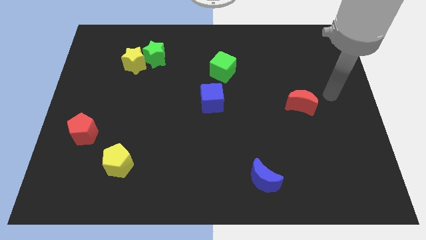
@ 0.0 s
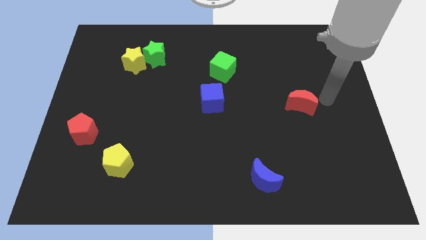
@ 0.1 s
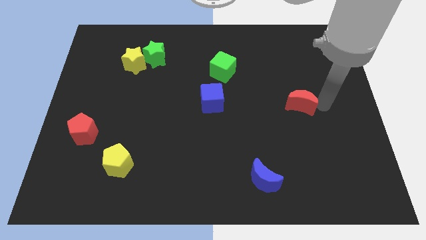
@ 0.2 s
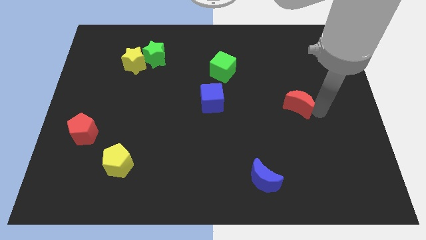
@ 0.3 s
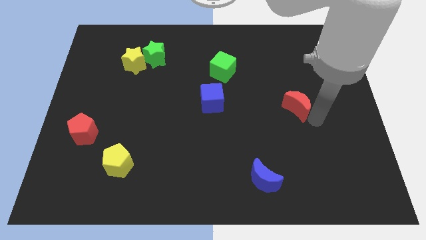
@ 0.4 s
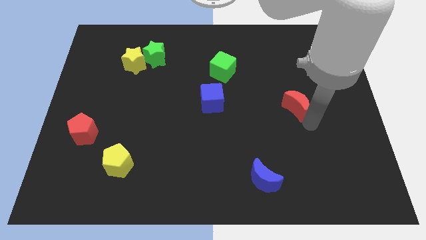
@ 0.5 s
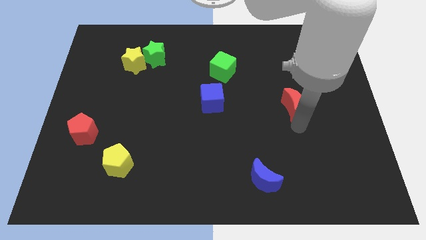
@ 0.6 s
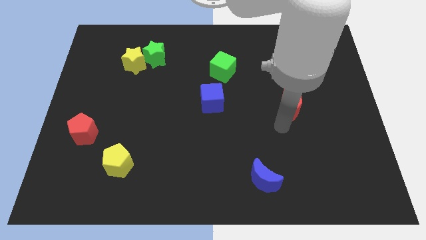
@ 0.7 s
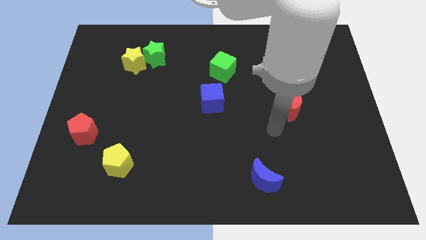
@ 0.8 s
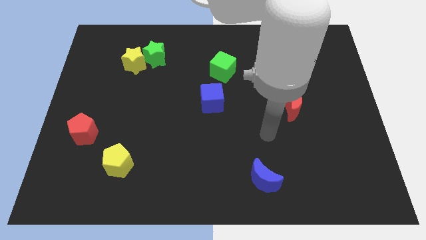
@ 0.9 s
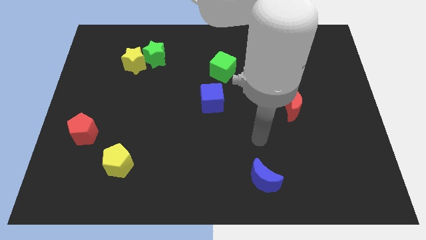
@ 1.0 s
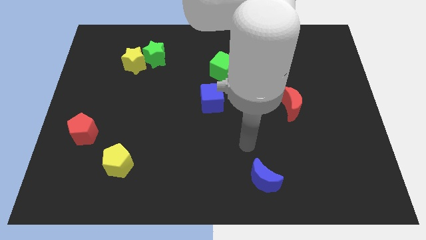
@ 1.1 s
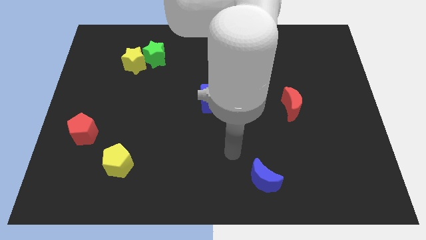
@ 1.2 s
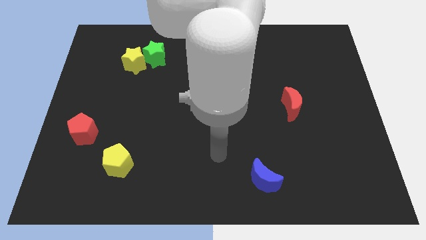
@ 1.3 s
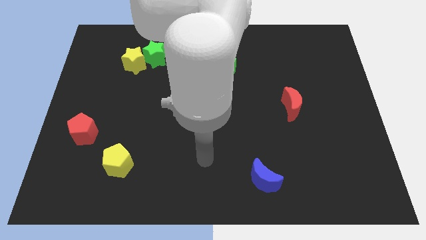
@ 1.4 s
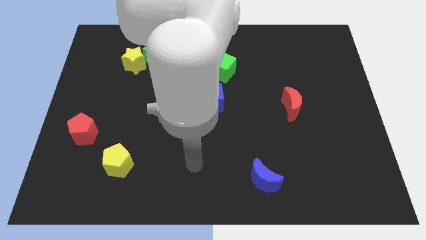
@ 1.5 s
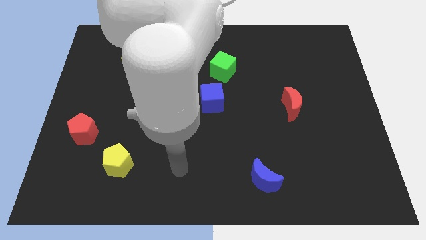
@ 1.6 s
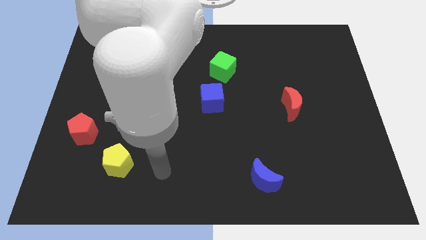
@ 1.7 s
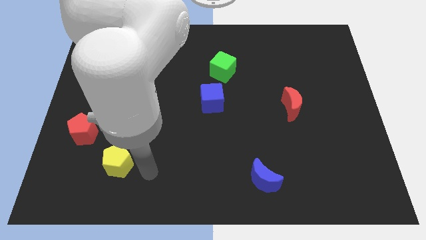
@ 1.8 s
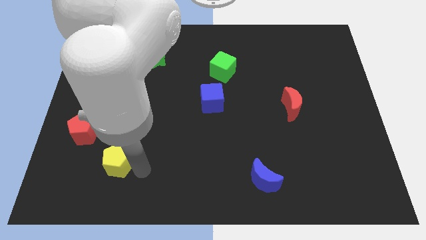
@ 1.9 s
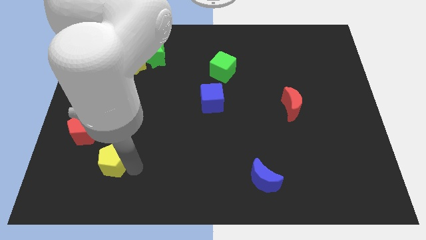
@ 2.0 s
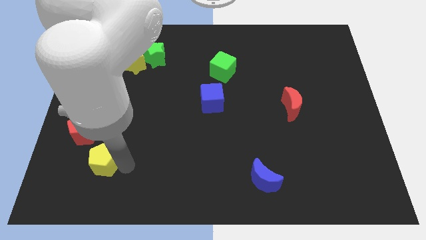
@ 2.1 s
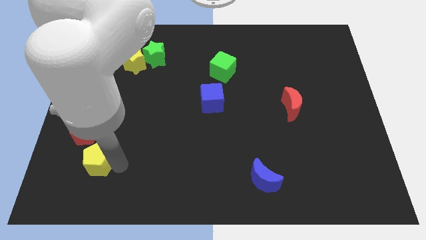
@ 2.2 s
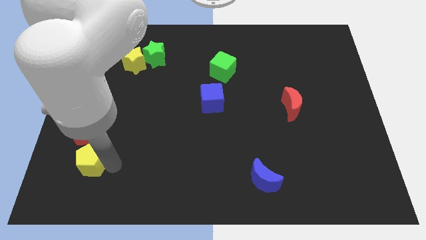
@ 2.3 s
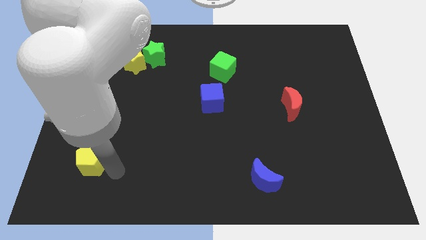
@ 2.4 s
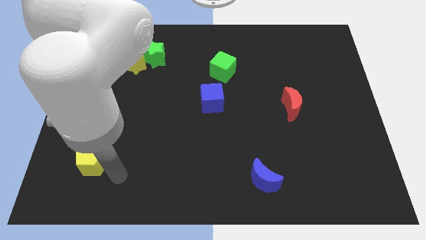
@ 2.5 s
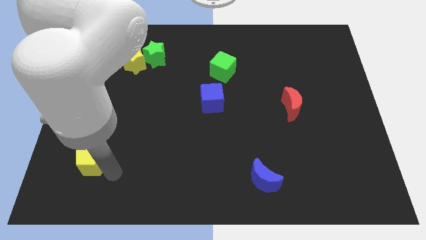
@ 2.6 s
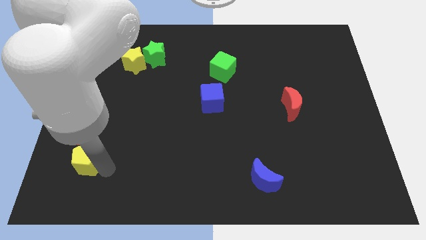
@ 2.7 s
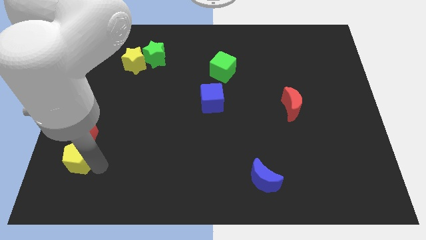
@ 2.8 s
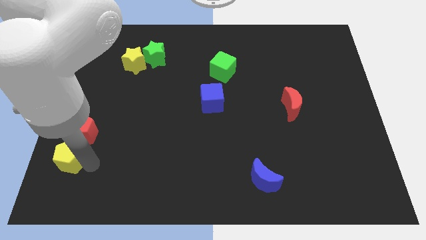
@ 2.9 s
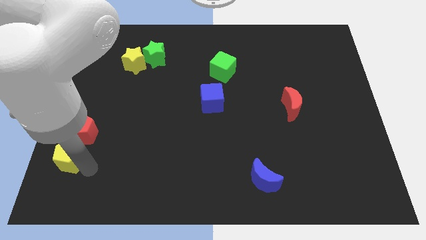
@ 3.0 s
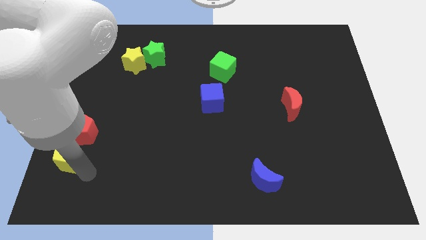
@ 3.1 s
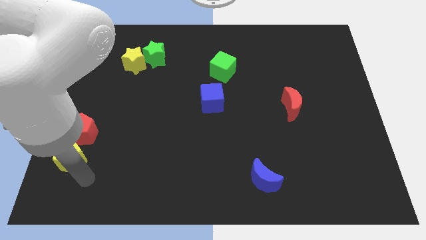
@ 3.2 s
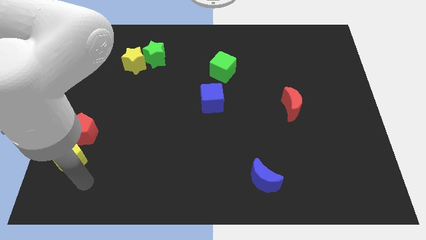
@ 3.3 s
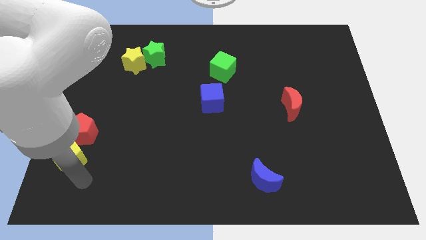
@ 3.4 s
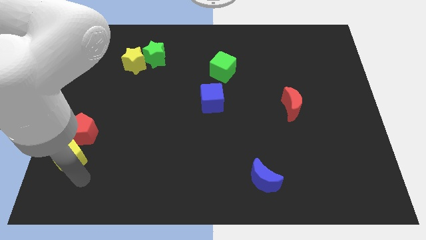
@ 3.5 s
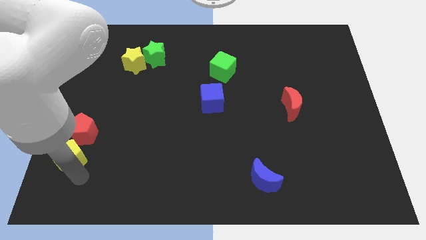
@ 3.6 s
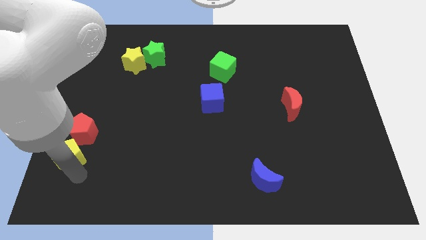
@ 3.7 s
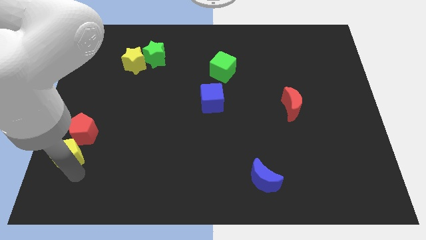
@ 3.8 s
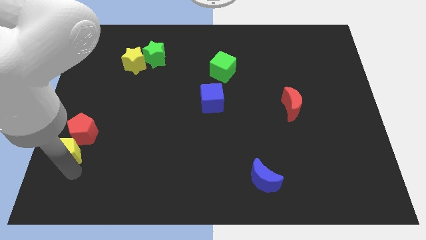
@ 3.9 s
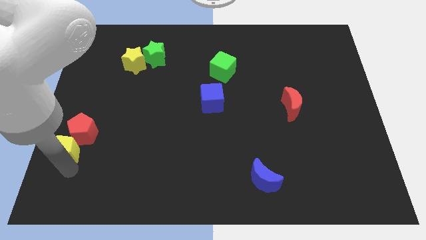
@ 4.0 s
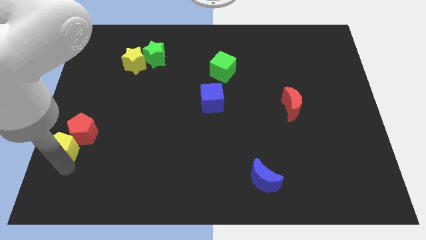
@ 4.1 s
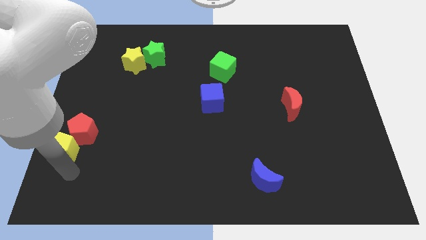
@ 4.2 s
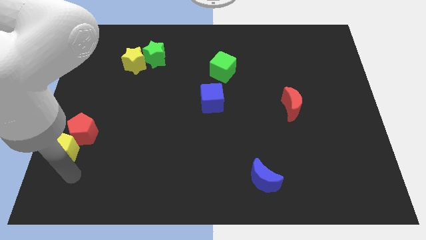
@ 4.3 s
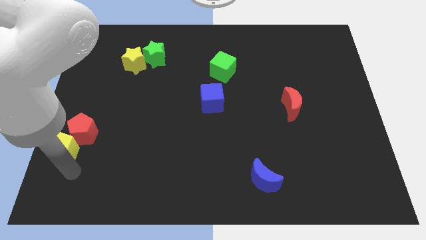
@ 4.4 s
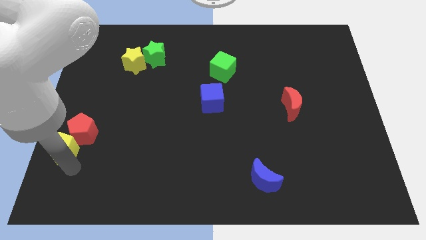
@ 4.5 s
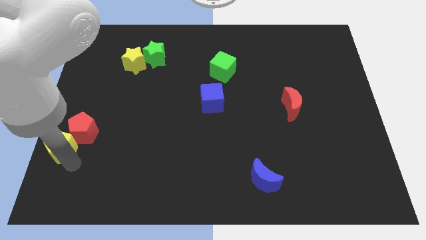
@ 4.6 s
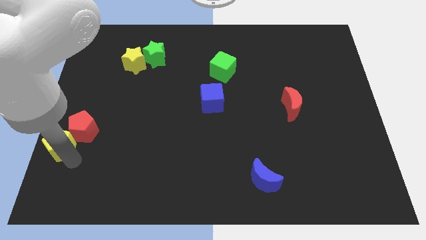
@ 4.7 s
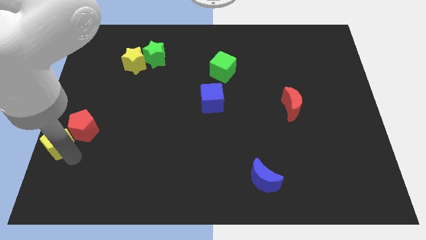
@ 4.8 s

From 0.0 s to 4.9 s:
push the yellow pentagon to the center left

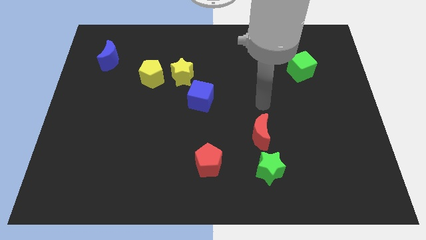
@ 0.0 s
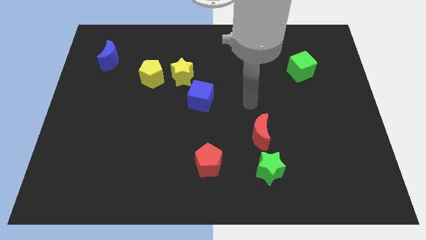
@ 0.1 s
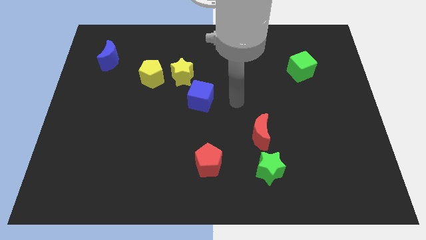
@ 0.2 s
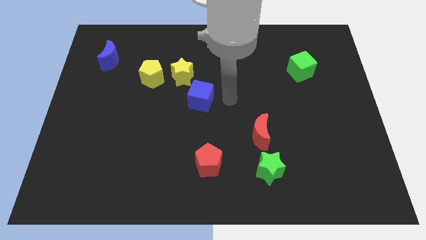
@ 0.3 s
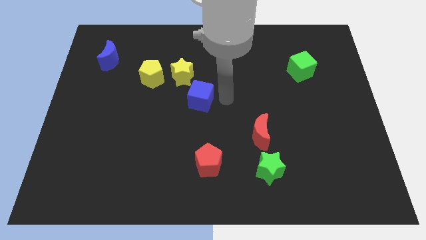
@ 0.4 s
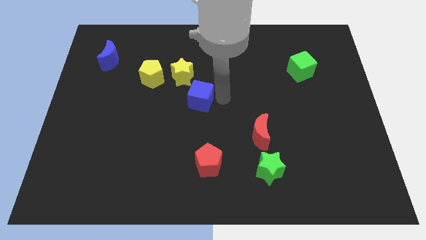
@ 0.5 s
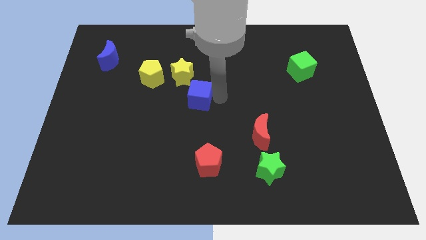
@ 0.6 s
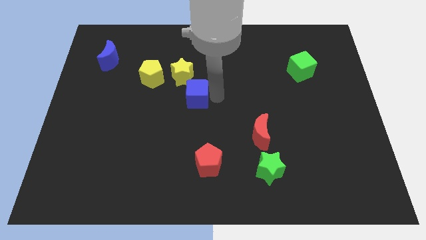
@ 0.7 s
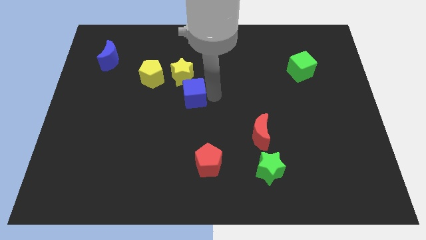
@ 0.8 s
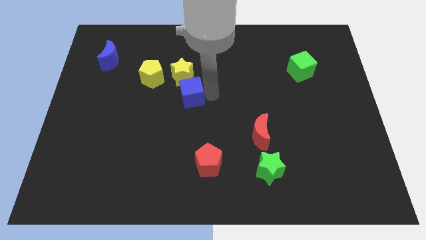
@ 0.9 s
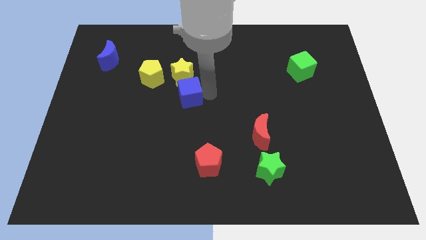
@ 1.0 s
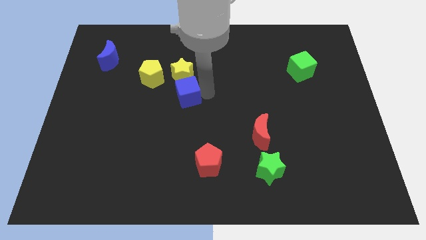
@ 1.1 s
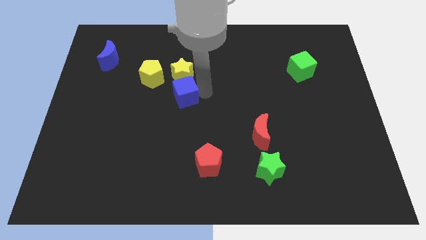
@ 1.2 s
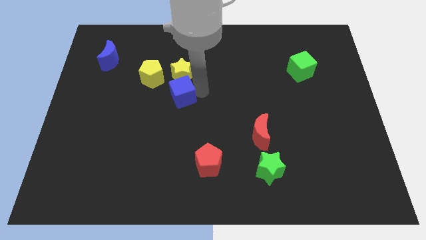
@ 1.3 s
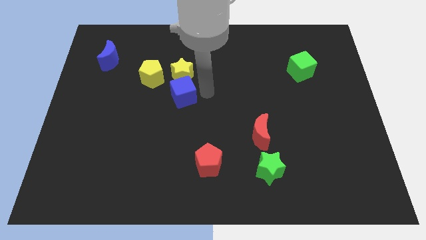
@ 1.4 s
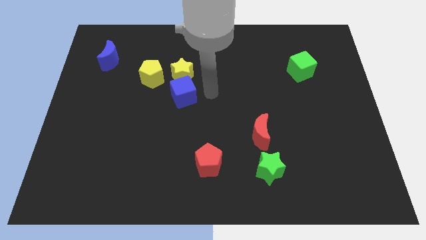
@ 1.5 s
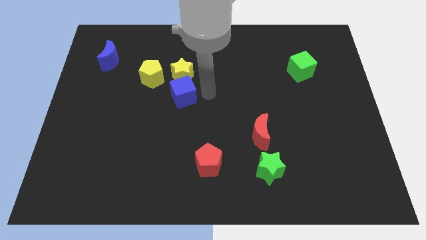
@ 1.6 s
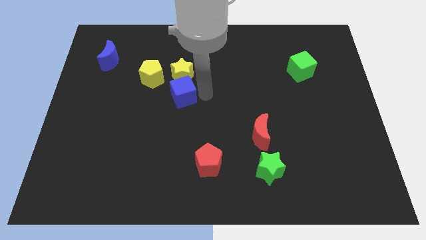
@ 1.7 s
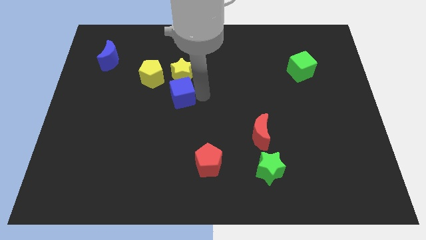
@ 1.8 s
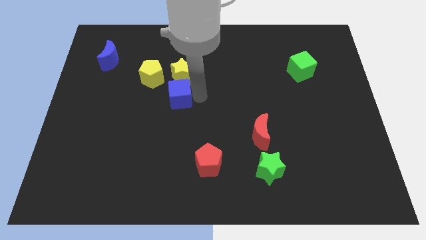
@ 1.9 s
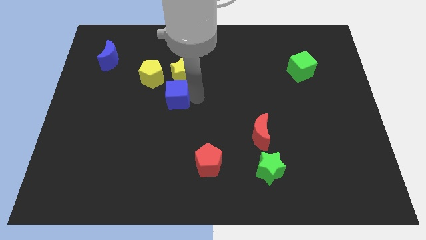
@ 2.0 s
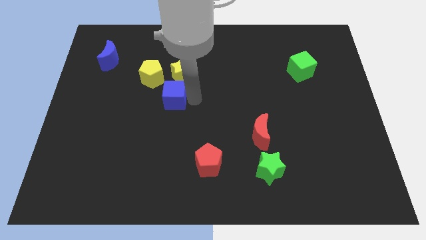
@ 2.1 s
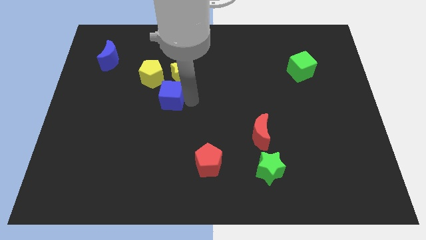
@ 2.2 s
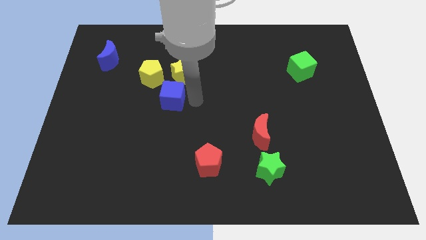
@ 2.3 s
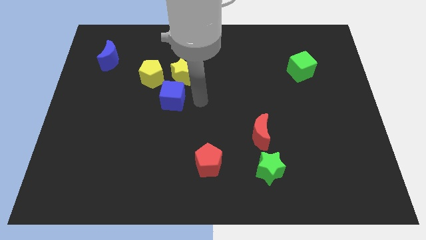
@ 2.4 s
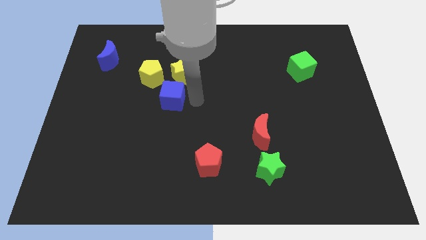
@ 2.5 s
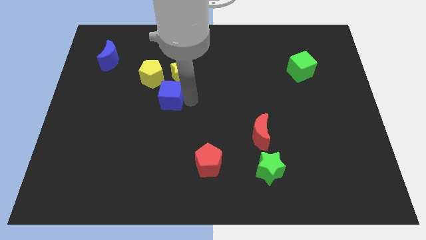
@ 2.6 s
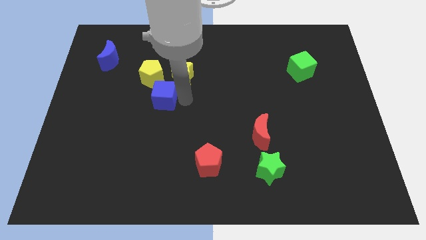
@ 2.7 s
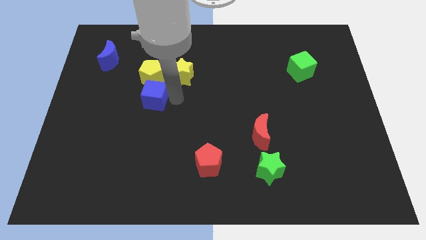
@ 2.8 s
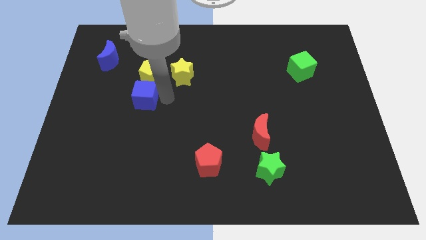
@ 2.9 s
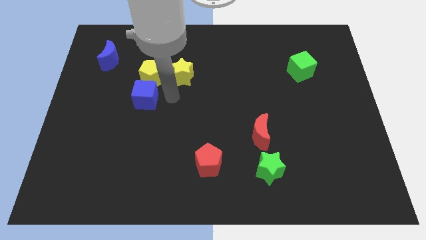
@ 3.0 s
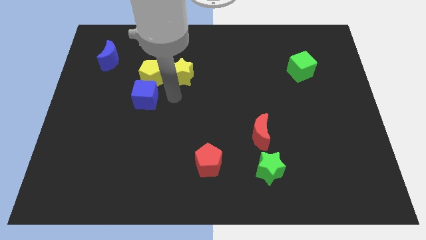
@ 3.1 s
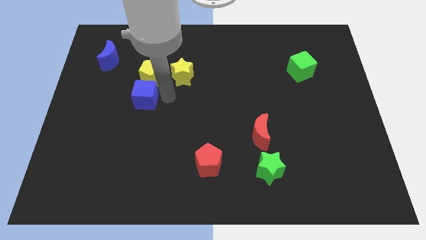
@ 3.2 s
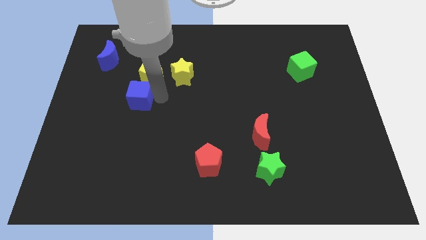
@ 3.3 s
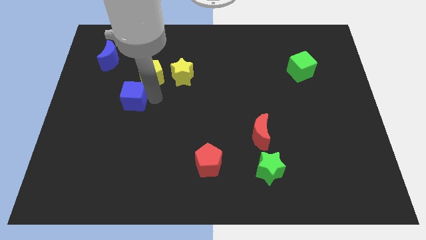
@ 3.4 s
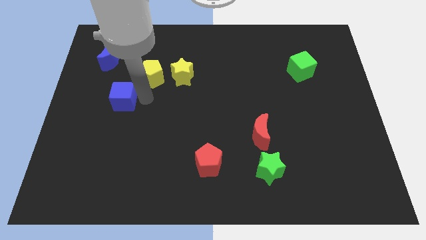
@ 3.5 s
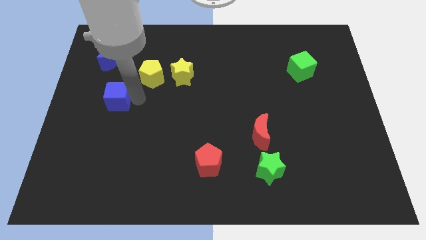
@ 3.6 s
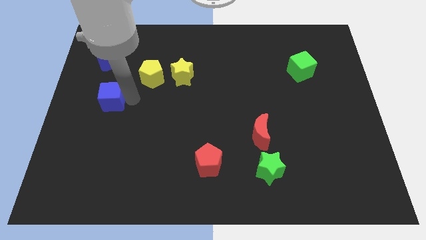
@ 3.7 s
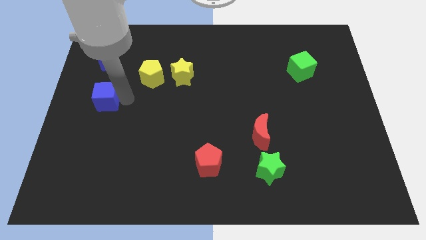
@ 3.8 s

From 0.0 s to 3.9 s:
push the blue cube to the left side
